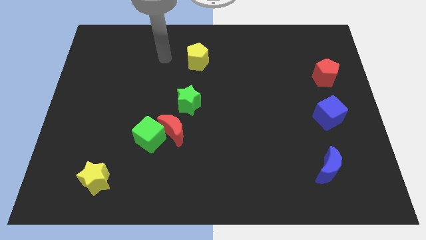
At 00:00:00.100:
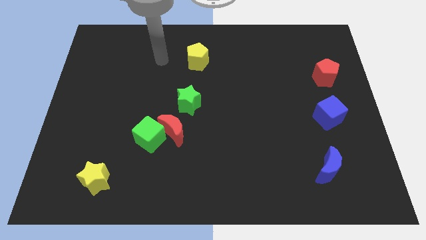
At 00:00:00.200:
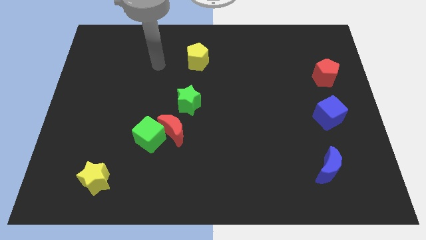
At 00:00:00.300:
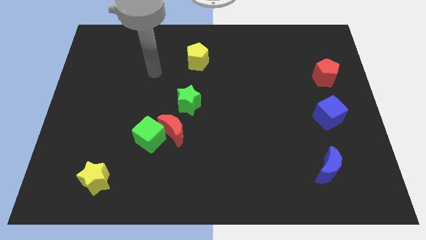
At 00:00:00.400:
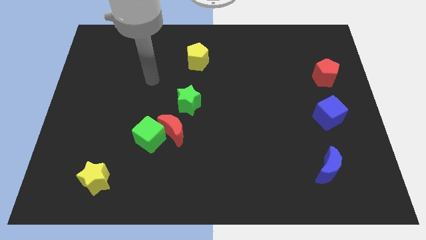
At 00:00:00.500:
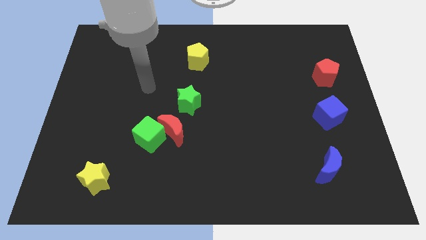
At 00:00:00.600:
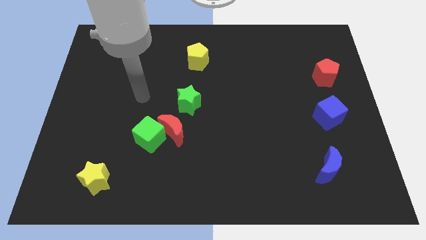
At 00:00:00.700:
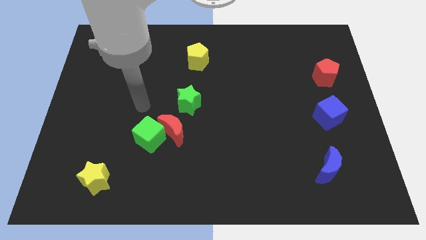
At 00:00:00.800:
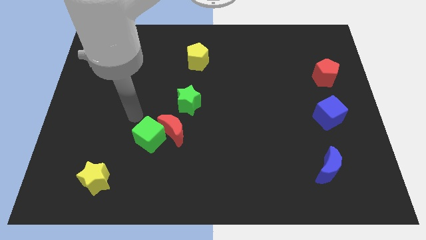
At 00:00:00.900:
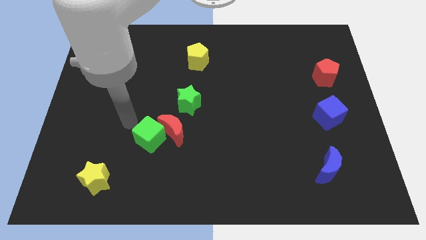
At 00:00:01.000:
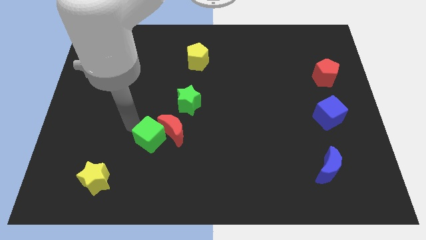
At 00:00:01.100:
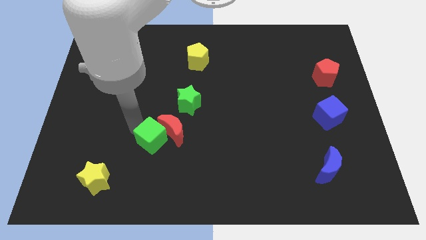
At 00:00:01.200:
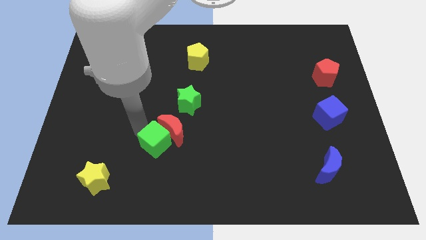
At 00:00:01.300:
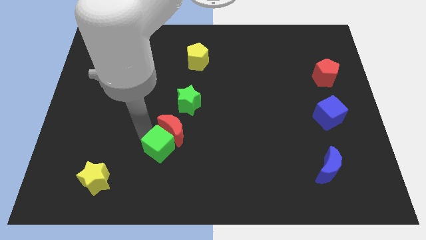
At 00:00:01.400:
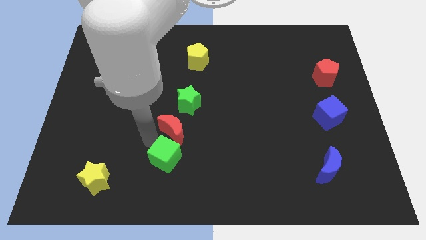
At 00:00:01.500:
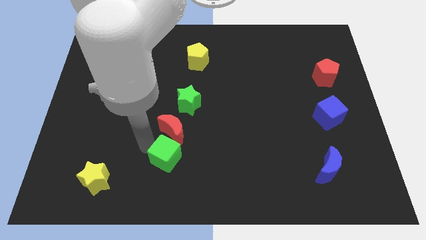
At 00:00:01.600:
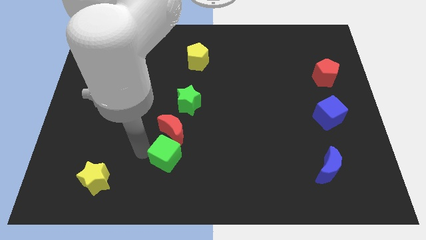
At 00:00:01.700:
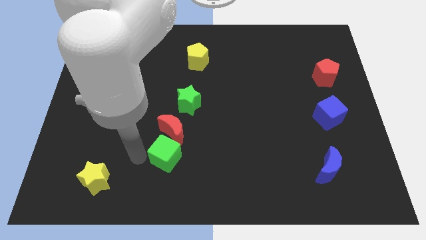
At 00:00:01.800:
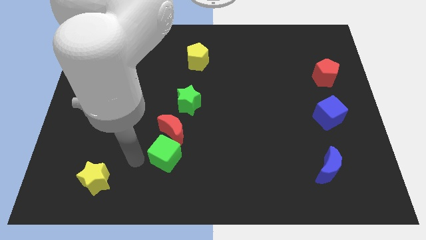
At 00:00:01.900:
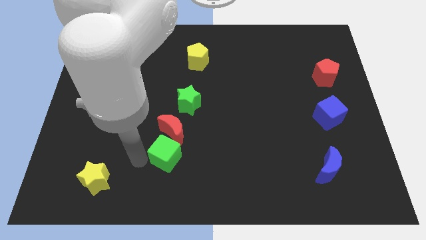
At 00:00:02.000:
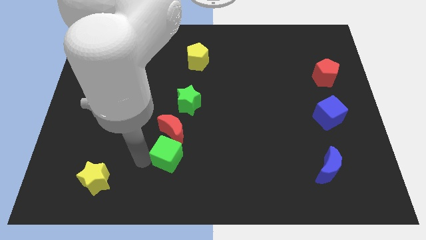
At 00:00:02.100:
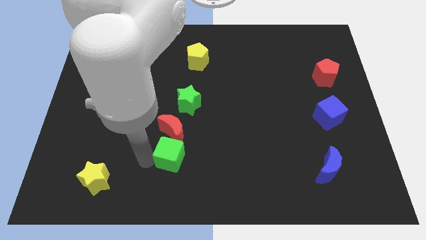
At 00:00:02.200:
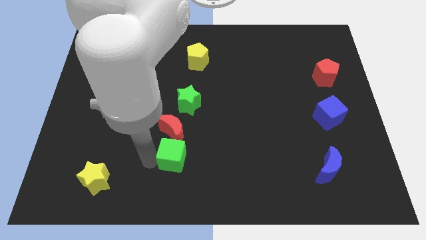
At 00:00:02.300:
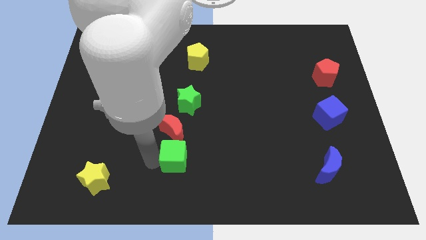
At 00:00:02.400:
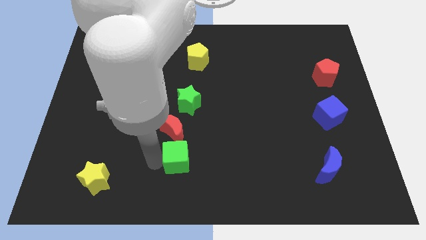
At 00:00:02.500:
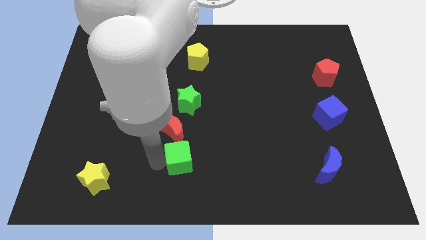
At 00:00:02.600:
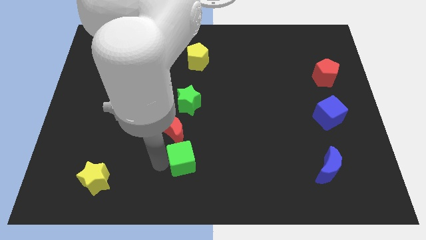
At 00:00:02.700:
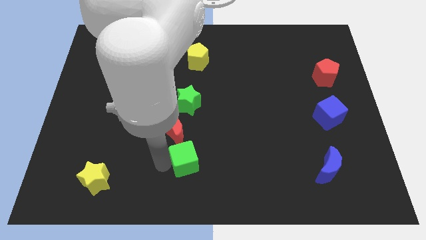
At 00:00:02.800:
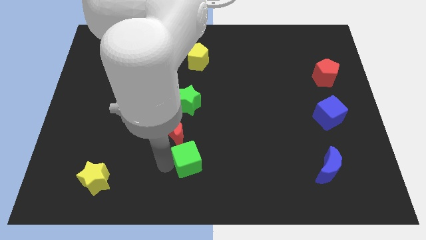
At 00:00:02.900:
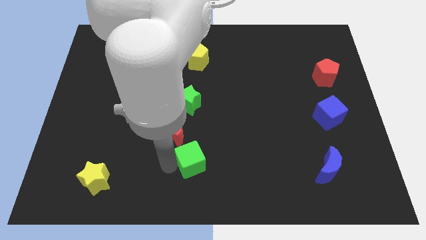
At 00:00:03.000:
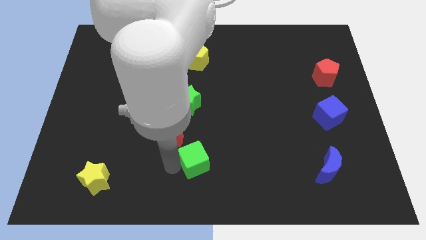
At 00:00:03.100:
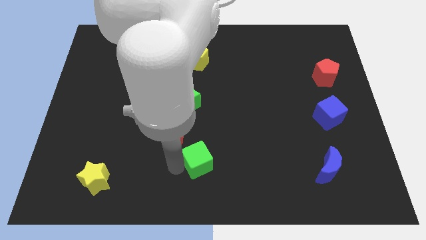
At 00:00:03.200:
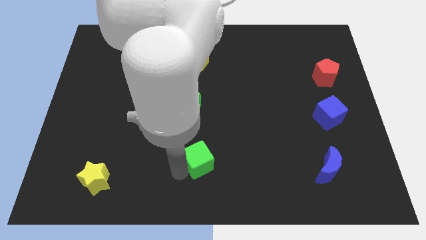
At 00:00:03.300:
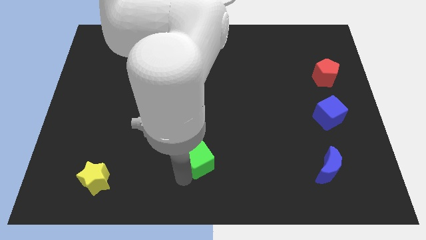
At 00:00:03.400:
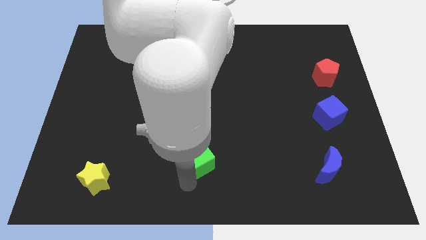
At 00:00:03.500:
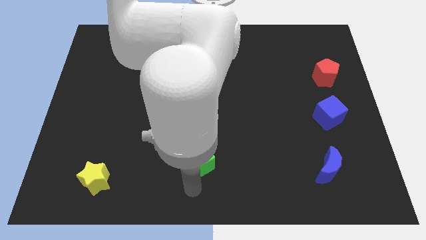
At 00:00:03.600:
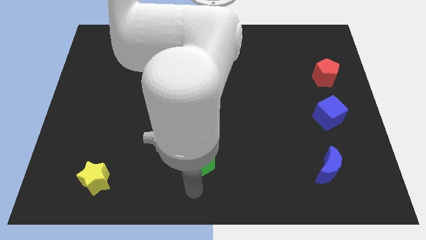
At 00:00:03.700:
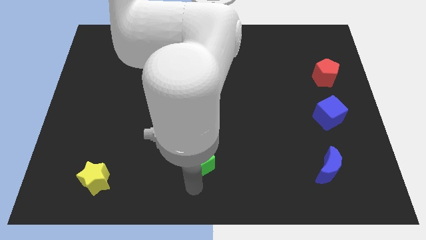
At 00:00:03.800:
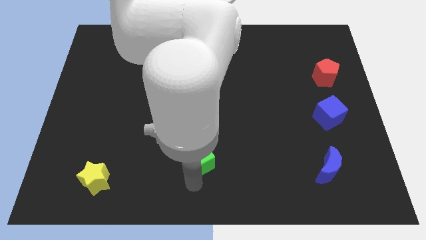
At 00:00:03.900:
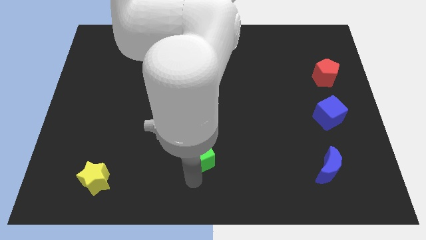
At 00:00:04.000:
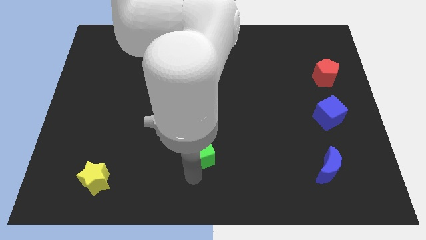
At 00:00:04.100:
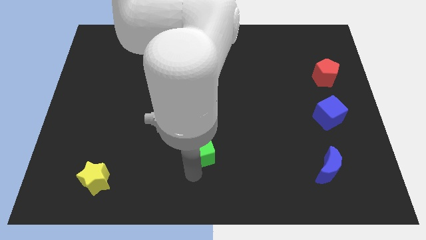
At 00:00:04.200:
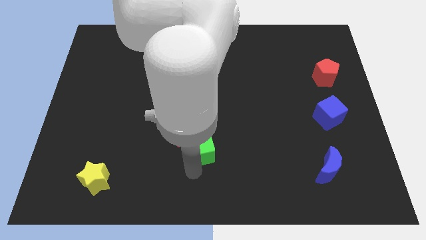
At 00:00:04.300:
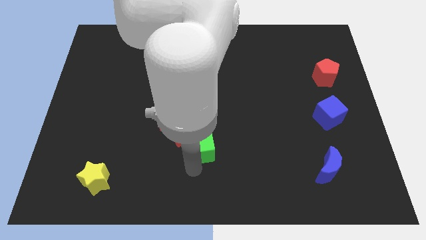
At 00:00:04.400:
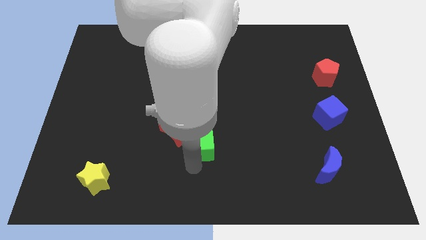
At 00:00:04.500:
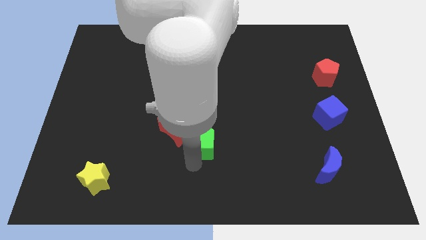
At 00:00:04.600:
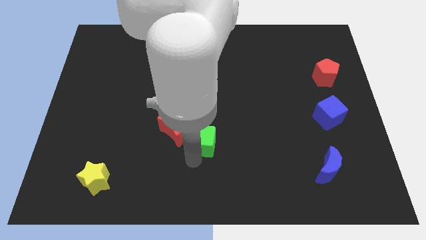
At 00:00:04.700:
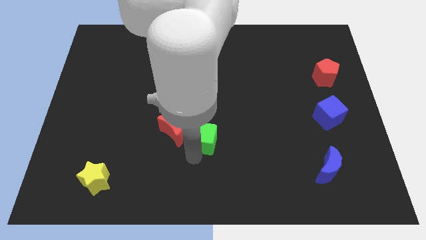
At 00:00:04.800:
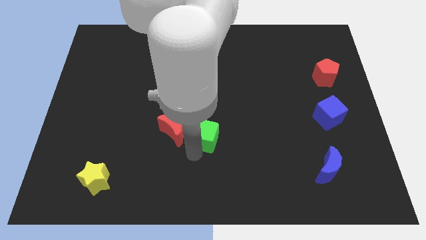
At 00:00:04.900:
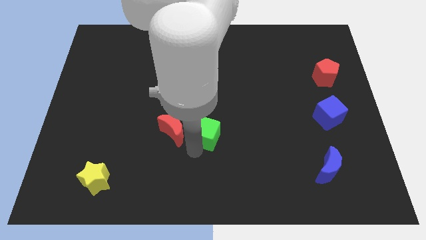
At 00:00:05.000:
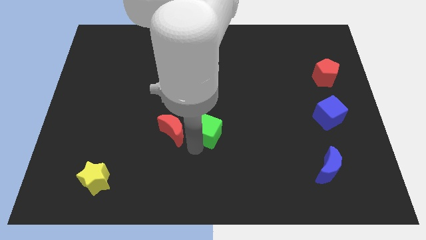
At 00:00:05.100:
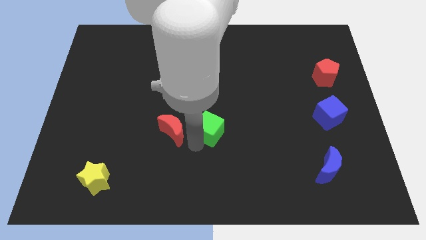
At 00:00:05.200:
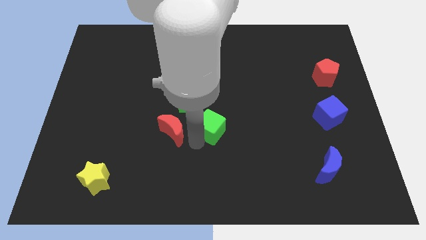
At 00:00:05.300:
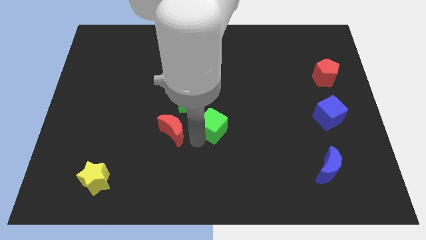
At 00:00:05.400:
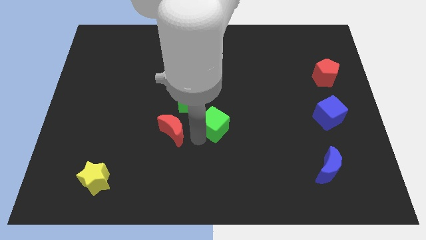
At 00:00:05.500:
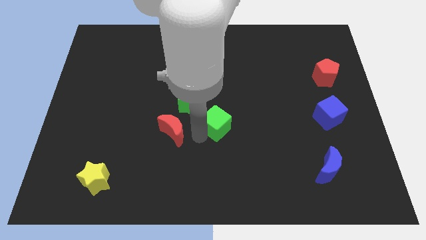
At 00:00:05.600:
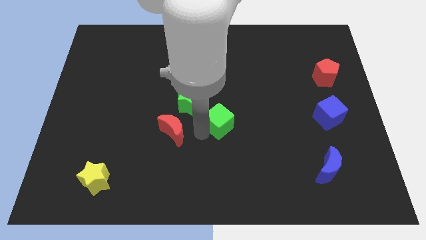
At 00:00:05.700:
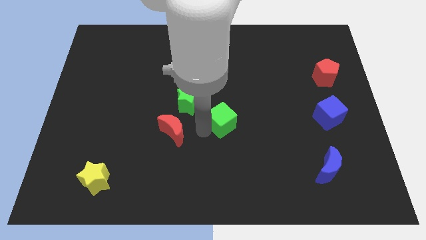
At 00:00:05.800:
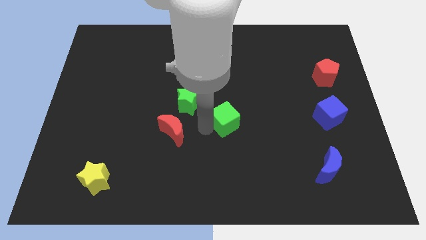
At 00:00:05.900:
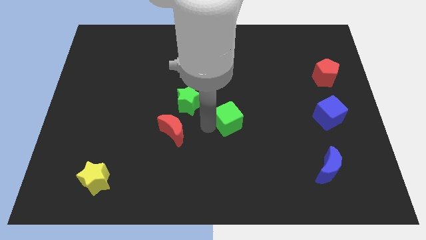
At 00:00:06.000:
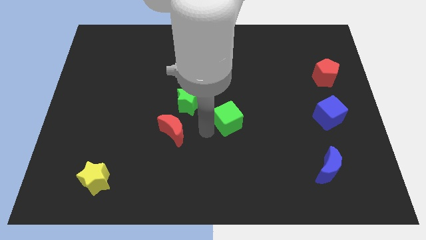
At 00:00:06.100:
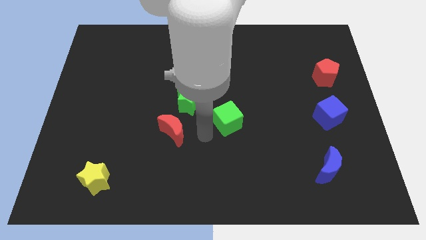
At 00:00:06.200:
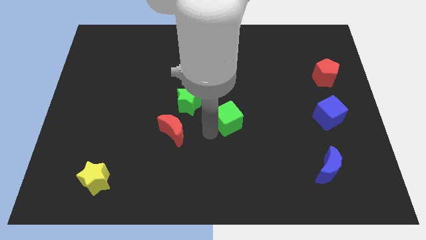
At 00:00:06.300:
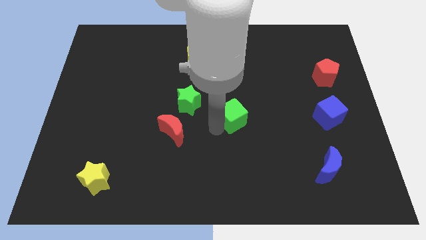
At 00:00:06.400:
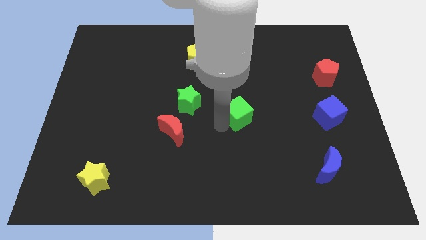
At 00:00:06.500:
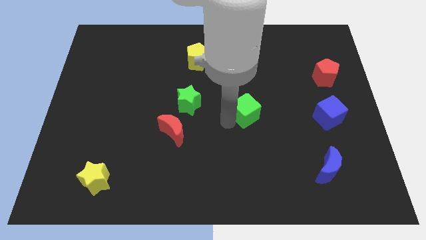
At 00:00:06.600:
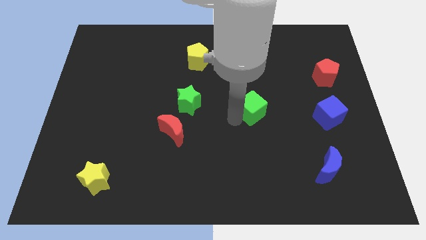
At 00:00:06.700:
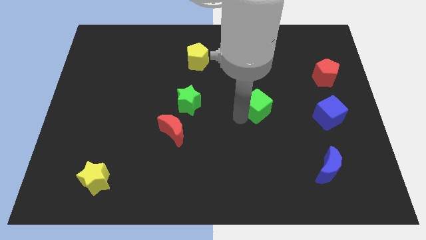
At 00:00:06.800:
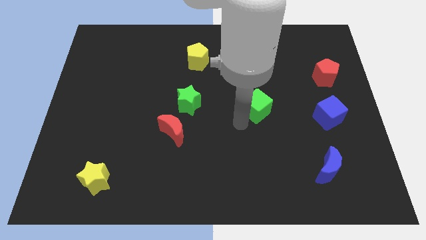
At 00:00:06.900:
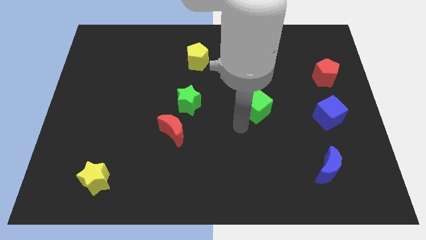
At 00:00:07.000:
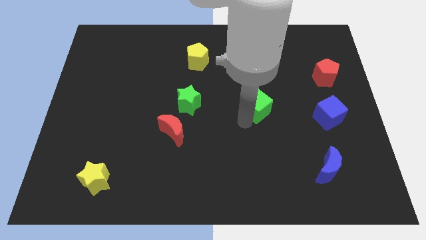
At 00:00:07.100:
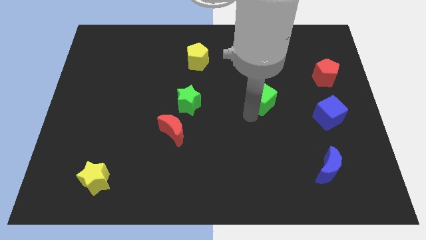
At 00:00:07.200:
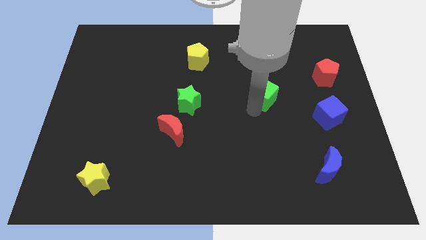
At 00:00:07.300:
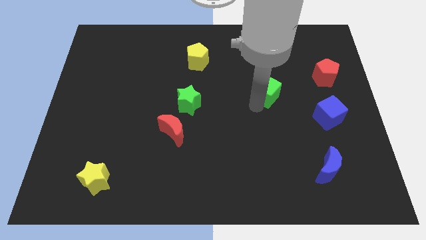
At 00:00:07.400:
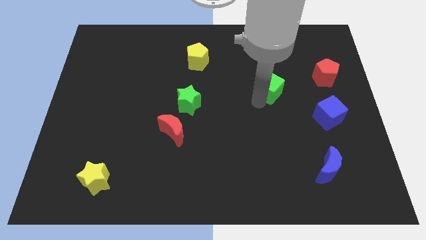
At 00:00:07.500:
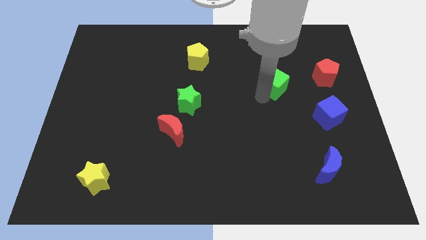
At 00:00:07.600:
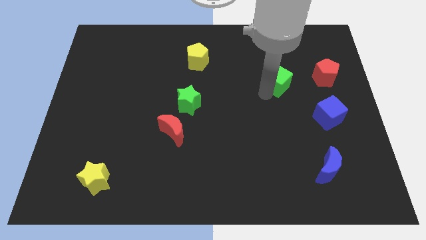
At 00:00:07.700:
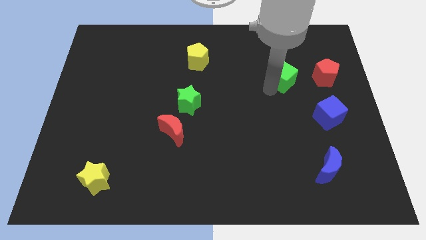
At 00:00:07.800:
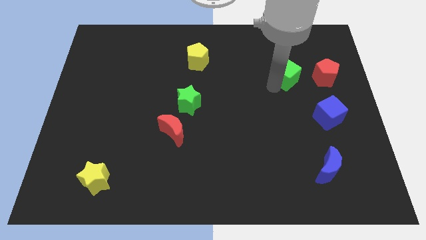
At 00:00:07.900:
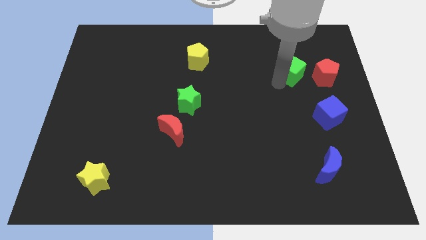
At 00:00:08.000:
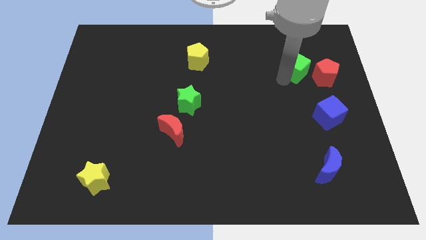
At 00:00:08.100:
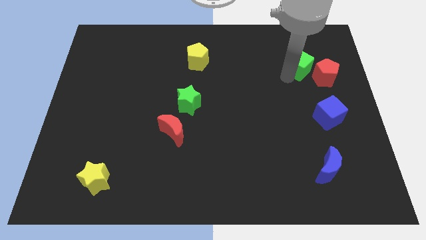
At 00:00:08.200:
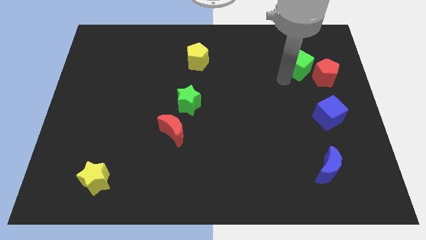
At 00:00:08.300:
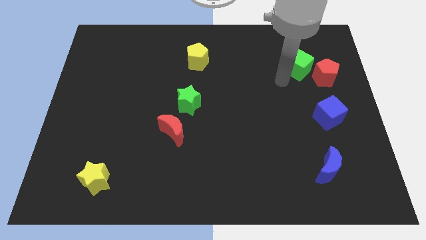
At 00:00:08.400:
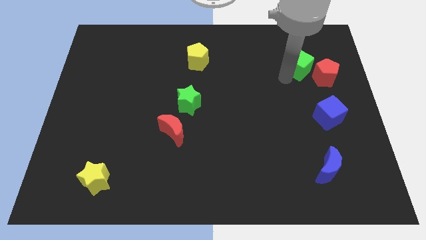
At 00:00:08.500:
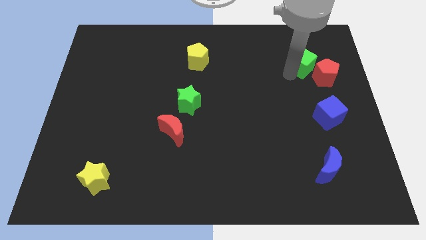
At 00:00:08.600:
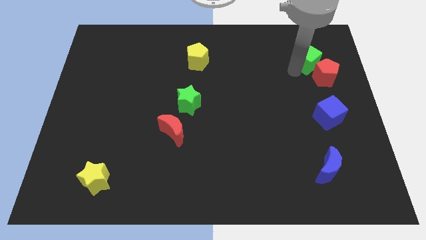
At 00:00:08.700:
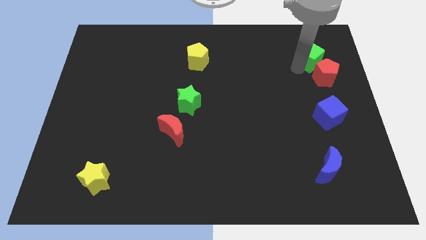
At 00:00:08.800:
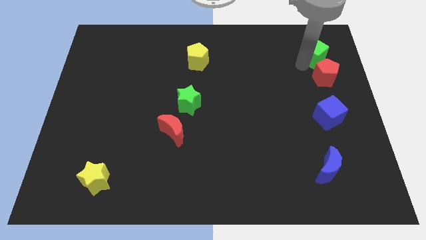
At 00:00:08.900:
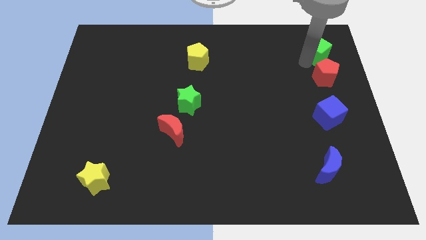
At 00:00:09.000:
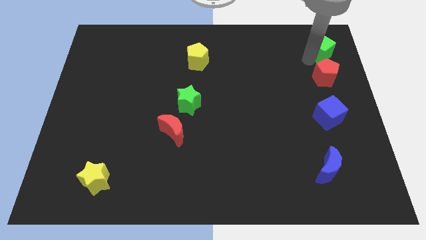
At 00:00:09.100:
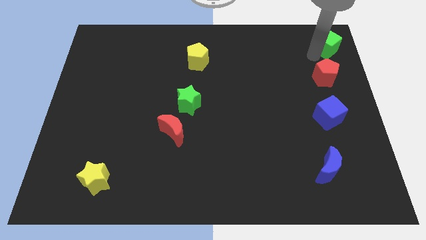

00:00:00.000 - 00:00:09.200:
push the green cube to the top right
